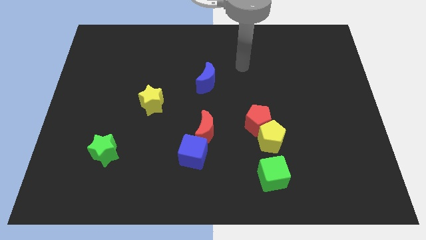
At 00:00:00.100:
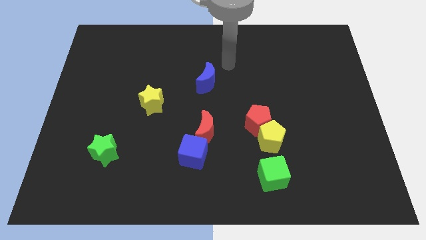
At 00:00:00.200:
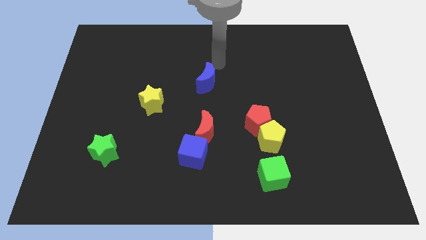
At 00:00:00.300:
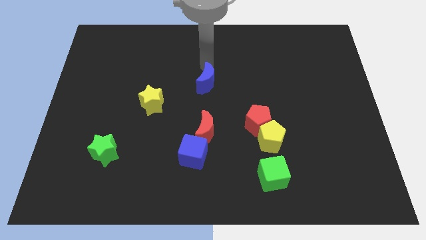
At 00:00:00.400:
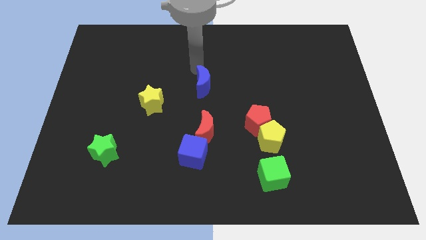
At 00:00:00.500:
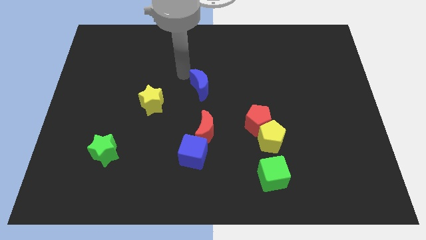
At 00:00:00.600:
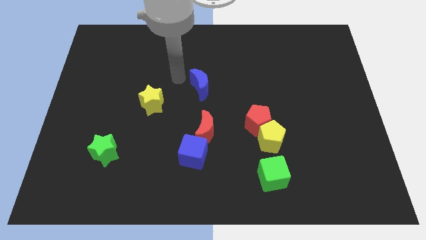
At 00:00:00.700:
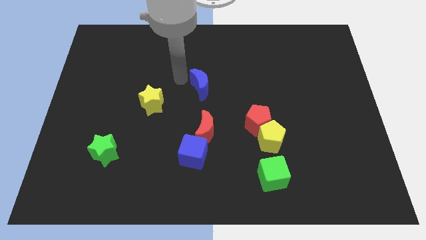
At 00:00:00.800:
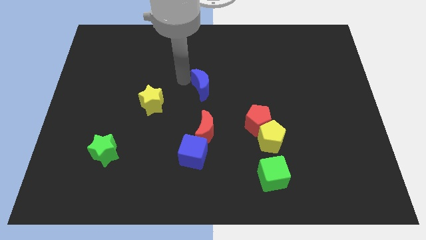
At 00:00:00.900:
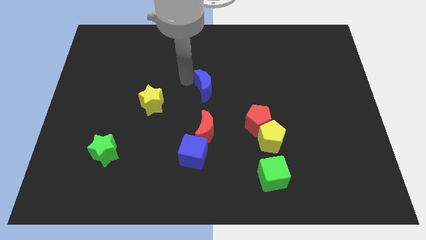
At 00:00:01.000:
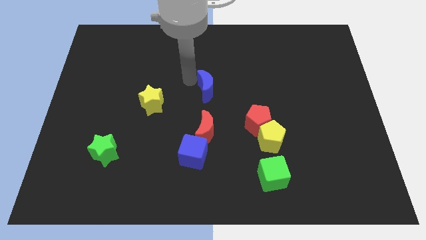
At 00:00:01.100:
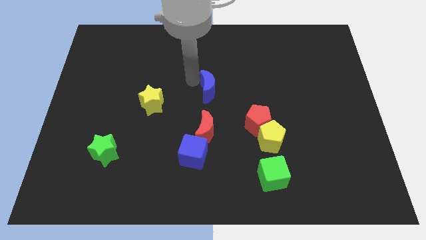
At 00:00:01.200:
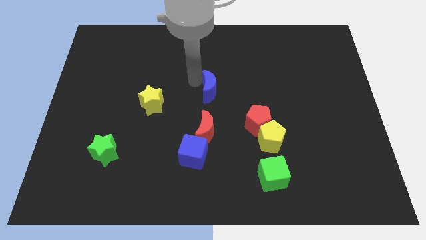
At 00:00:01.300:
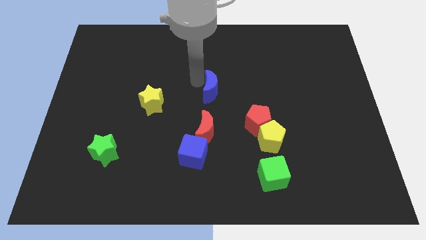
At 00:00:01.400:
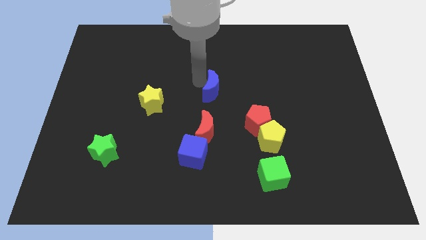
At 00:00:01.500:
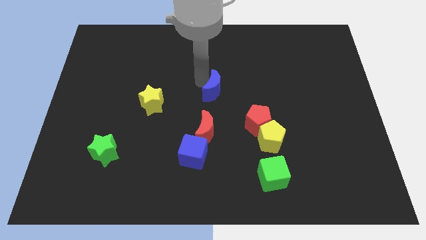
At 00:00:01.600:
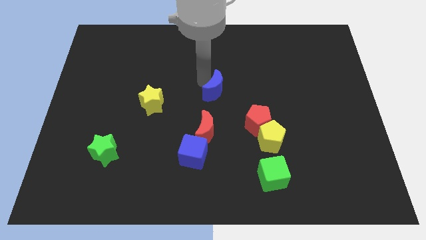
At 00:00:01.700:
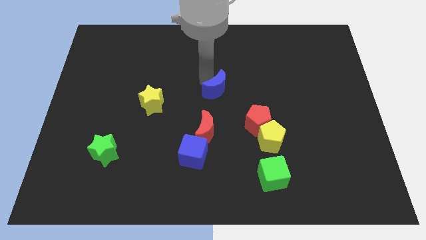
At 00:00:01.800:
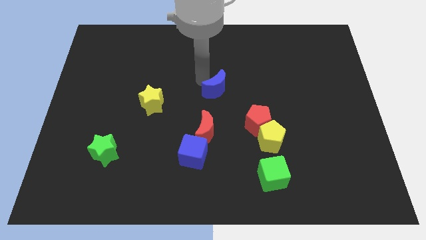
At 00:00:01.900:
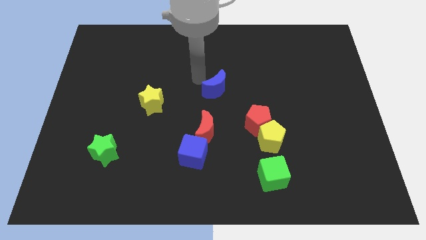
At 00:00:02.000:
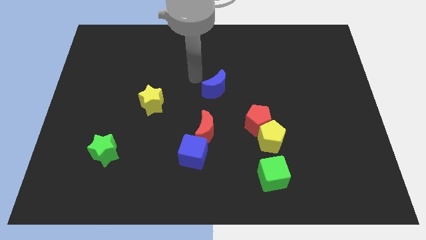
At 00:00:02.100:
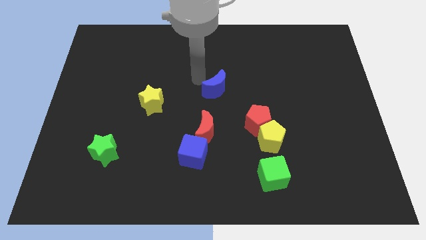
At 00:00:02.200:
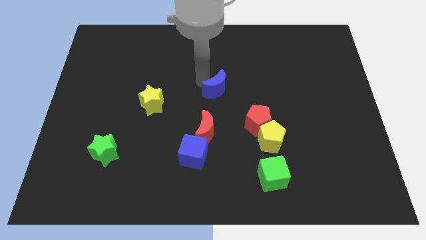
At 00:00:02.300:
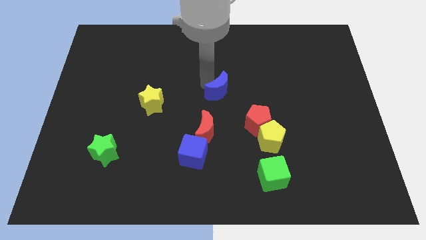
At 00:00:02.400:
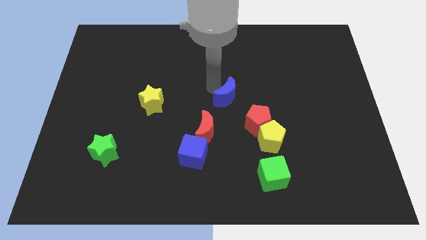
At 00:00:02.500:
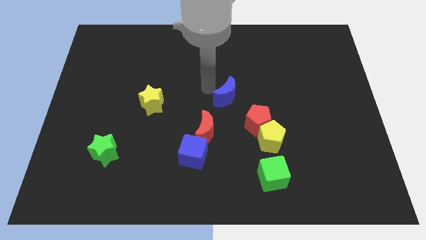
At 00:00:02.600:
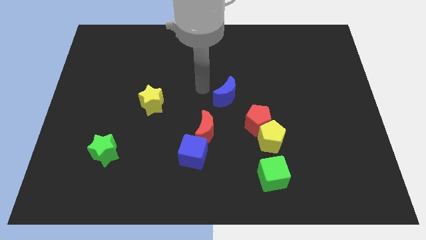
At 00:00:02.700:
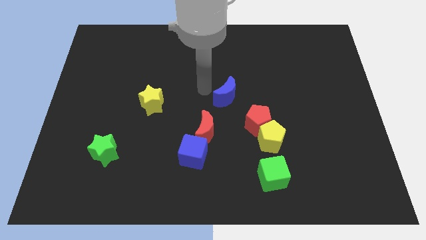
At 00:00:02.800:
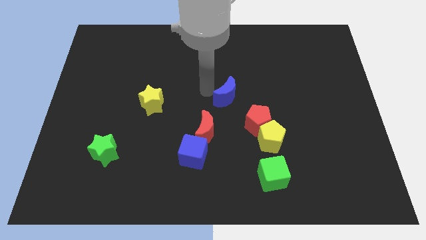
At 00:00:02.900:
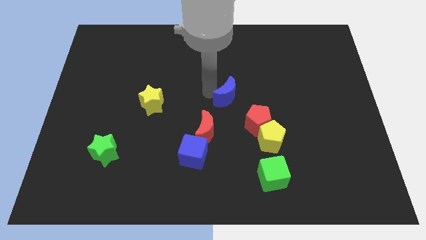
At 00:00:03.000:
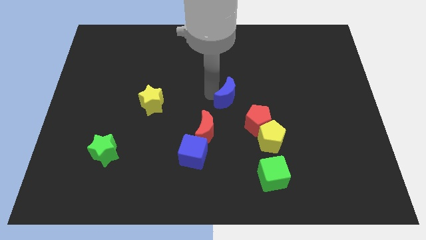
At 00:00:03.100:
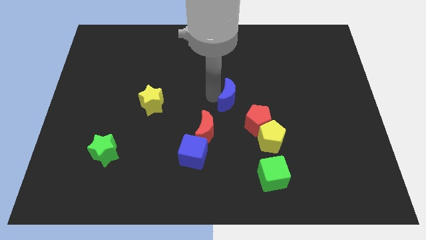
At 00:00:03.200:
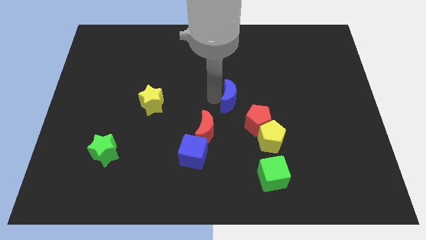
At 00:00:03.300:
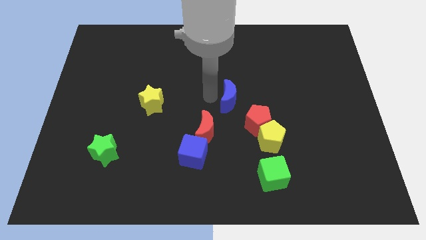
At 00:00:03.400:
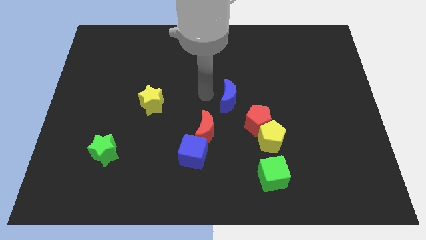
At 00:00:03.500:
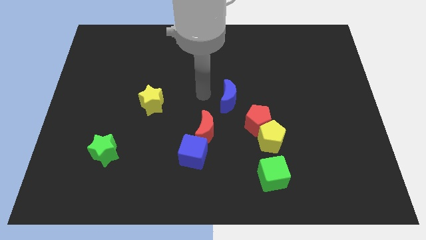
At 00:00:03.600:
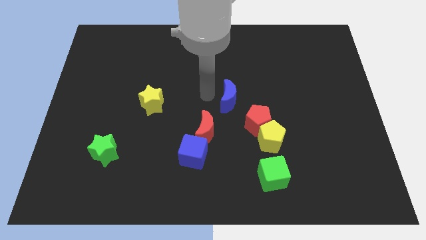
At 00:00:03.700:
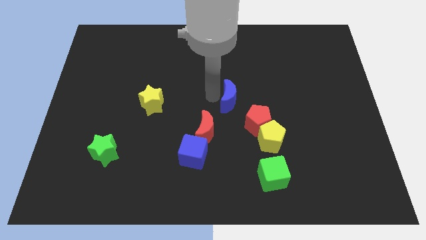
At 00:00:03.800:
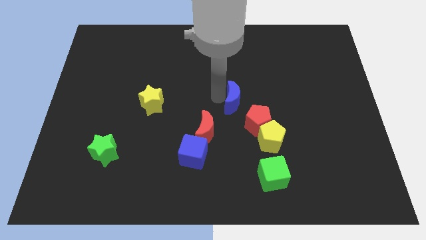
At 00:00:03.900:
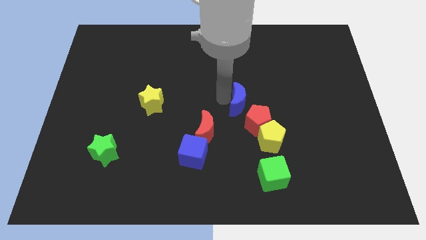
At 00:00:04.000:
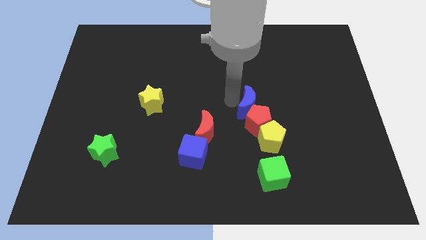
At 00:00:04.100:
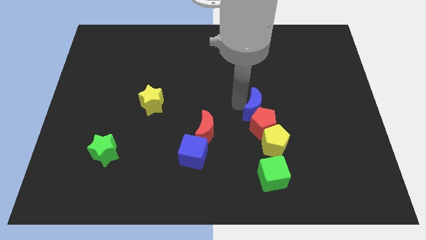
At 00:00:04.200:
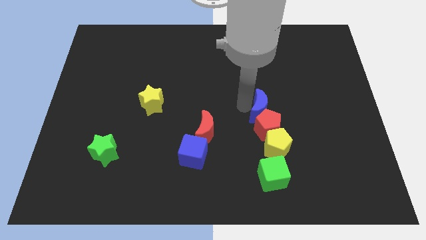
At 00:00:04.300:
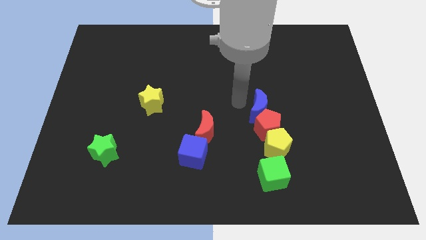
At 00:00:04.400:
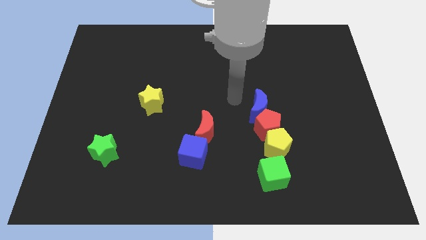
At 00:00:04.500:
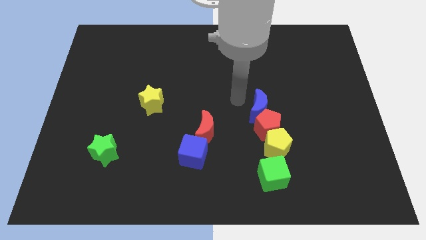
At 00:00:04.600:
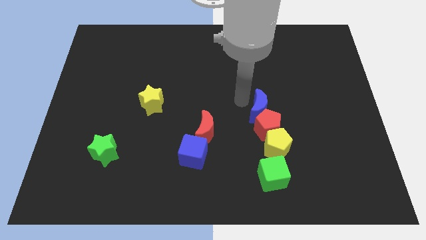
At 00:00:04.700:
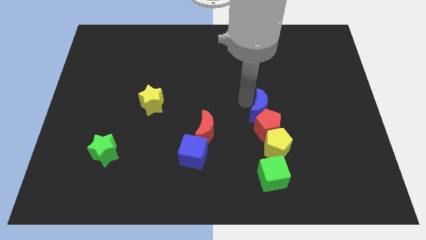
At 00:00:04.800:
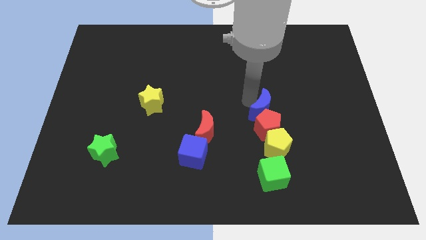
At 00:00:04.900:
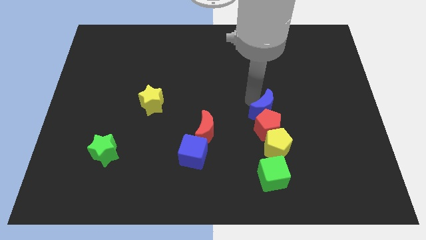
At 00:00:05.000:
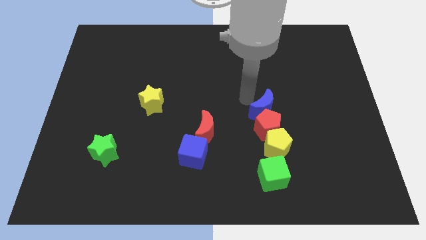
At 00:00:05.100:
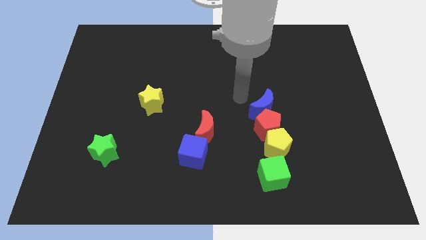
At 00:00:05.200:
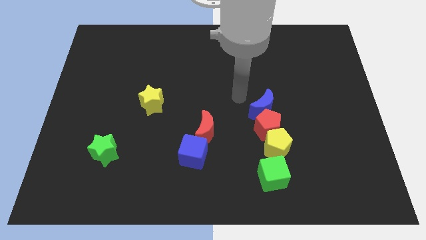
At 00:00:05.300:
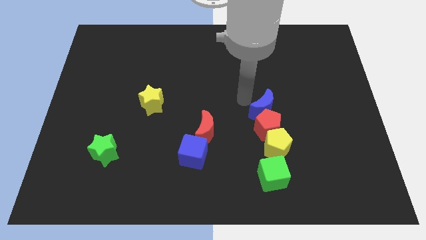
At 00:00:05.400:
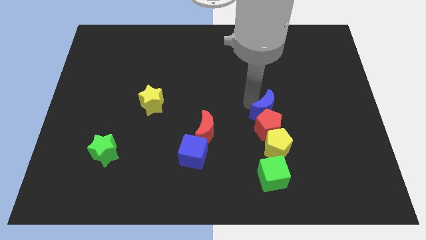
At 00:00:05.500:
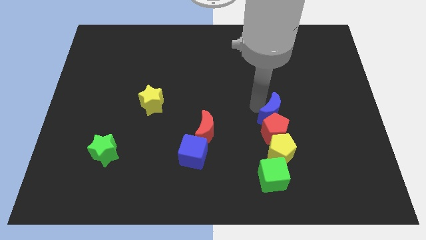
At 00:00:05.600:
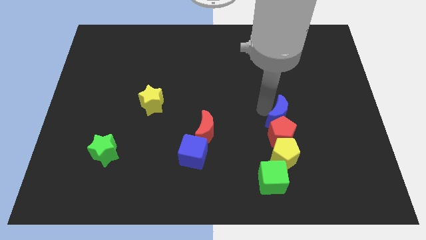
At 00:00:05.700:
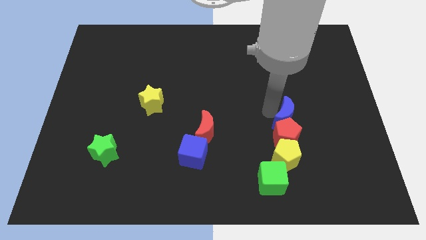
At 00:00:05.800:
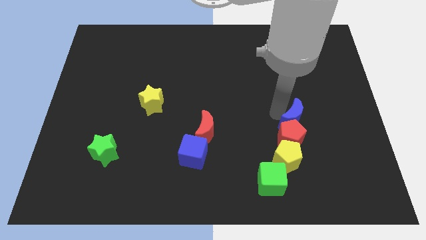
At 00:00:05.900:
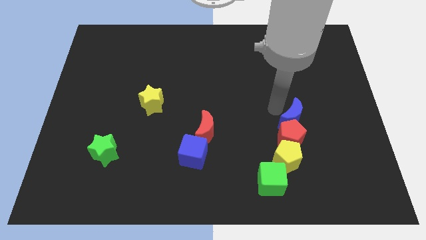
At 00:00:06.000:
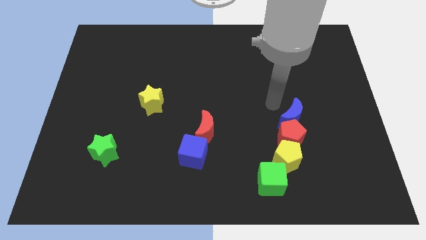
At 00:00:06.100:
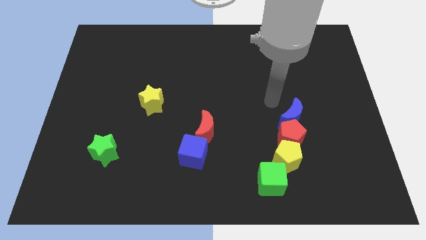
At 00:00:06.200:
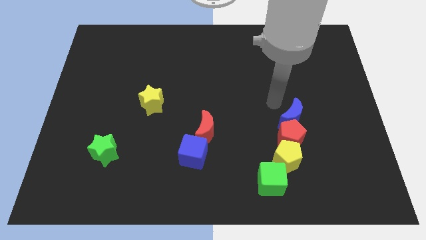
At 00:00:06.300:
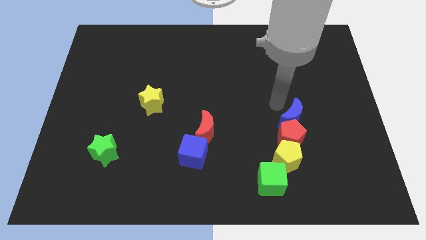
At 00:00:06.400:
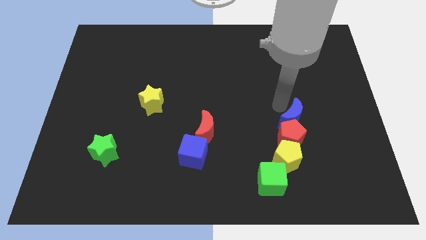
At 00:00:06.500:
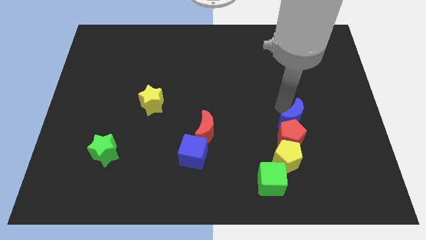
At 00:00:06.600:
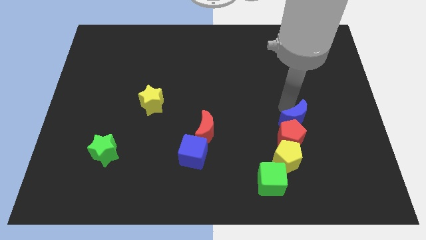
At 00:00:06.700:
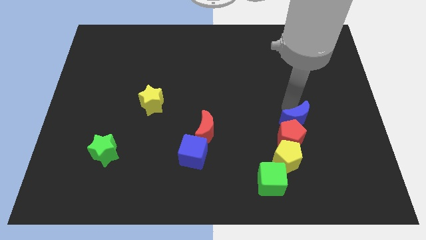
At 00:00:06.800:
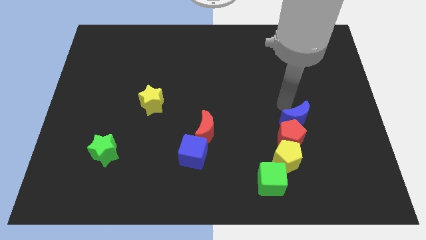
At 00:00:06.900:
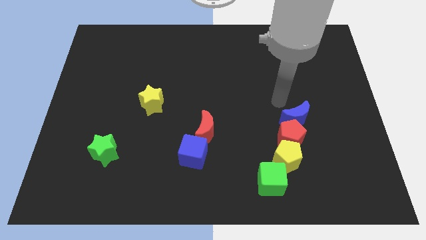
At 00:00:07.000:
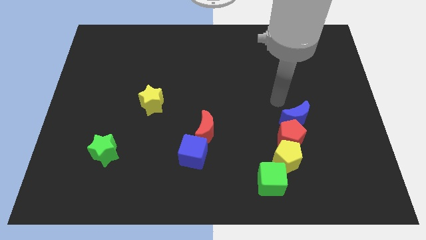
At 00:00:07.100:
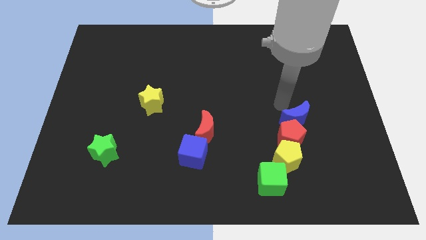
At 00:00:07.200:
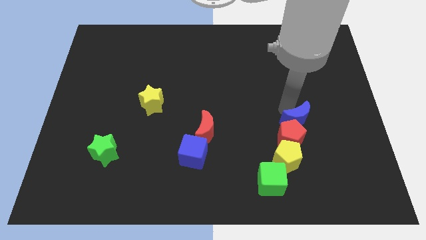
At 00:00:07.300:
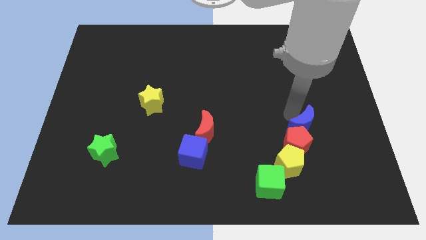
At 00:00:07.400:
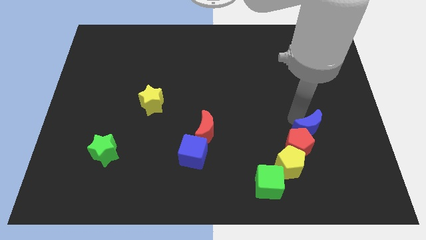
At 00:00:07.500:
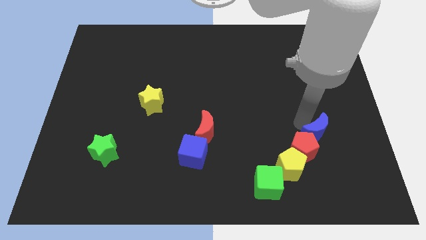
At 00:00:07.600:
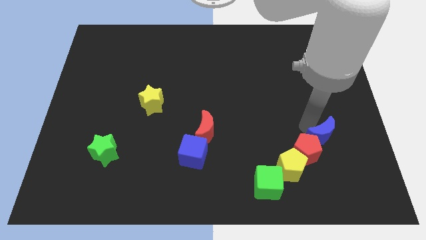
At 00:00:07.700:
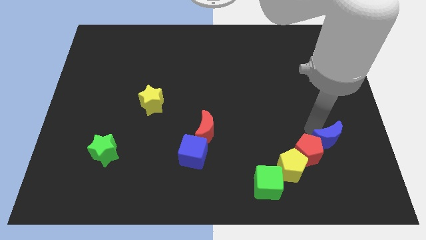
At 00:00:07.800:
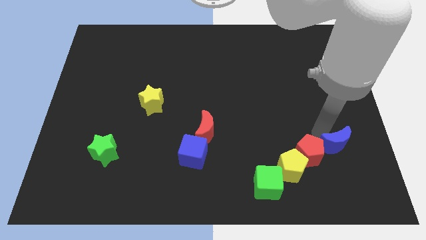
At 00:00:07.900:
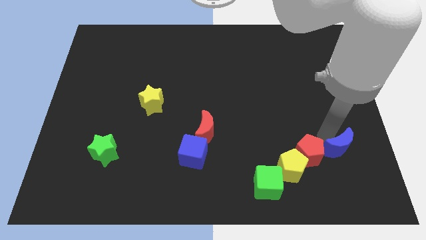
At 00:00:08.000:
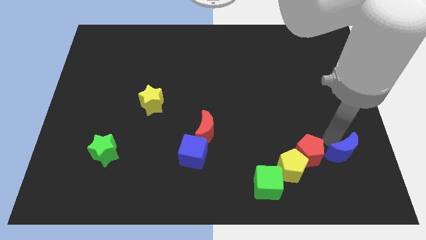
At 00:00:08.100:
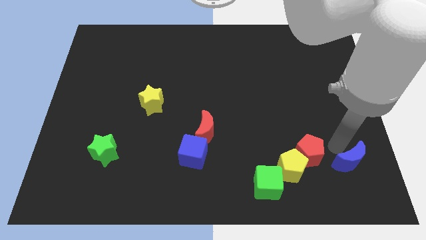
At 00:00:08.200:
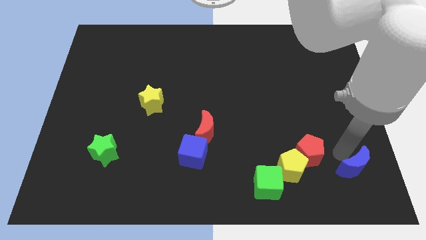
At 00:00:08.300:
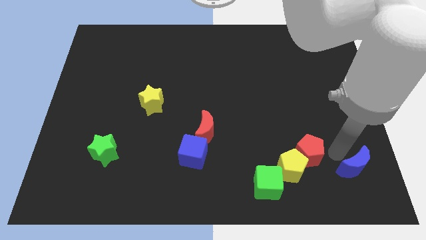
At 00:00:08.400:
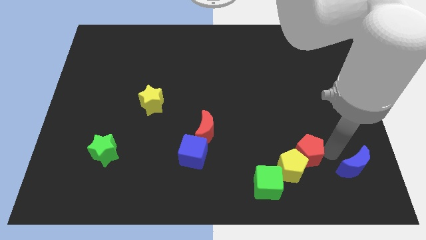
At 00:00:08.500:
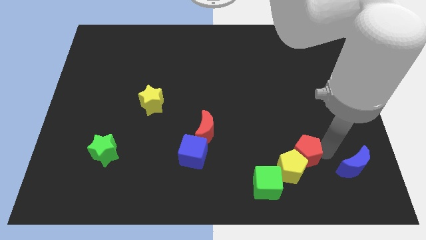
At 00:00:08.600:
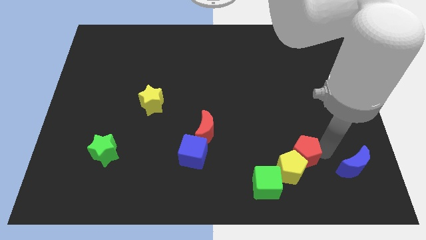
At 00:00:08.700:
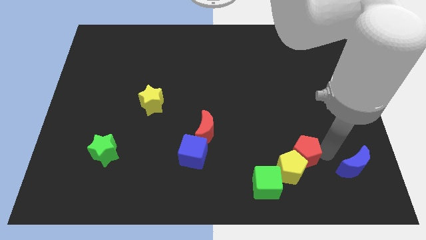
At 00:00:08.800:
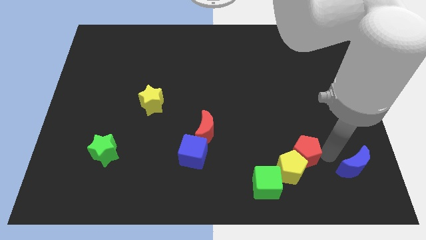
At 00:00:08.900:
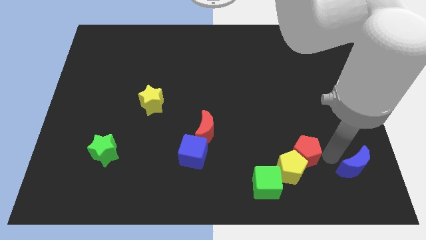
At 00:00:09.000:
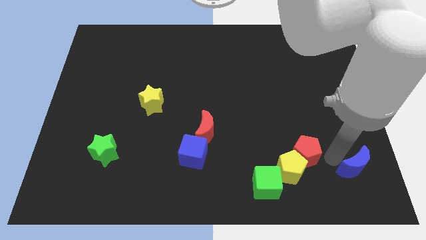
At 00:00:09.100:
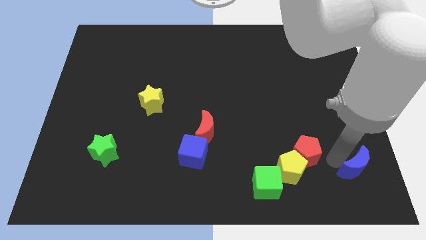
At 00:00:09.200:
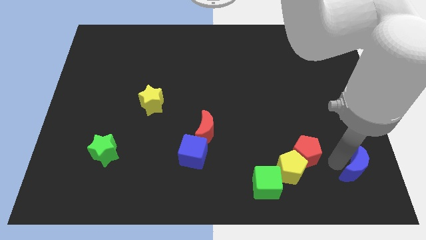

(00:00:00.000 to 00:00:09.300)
move the blue moon to the bottom right of the board
